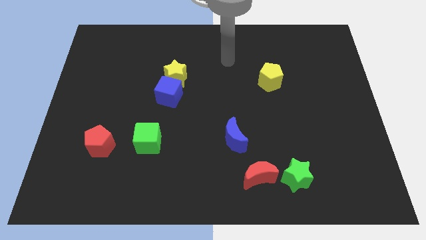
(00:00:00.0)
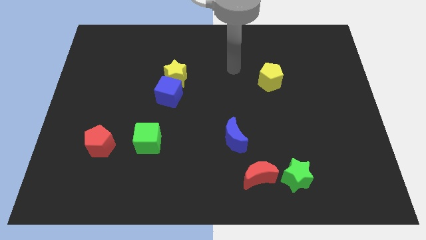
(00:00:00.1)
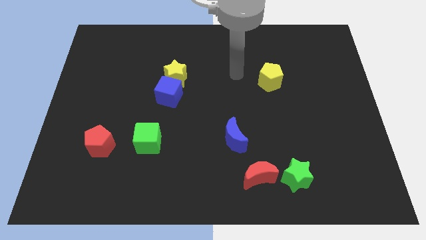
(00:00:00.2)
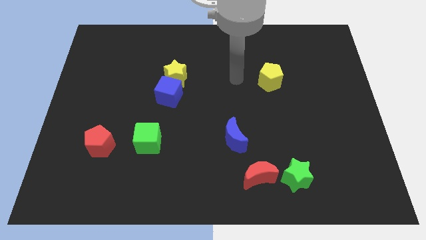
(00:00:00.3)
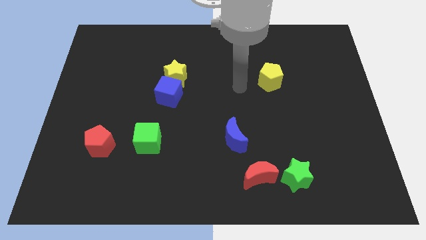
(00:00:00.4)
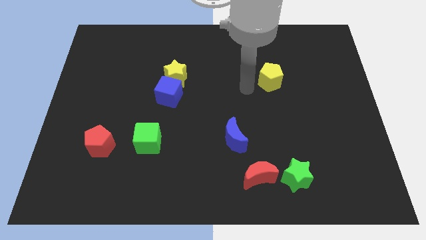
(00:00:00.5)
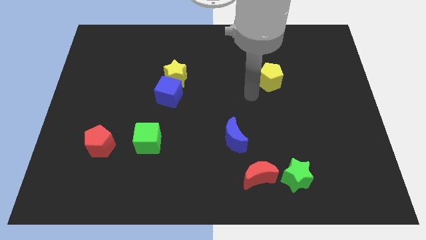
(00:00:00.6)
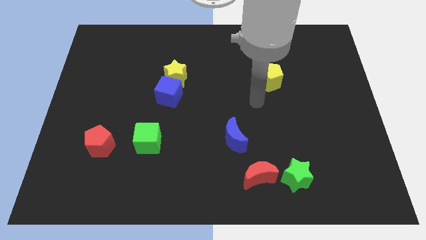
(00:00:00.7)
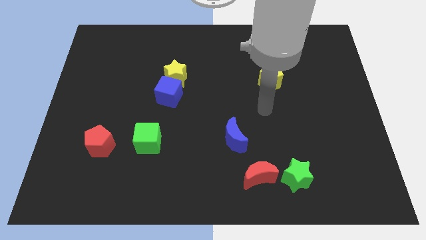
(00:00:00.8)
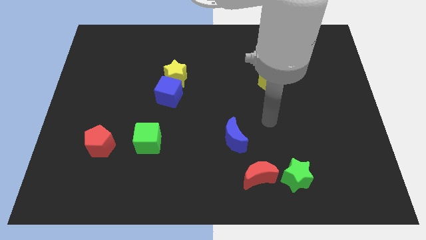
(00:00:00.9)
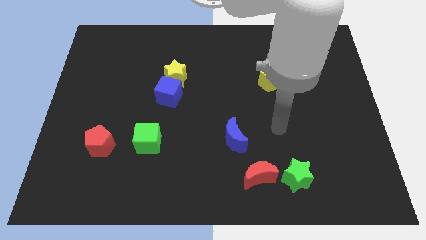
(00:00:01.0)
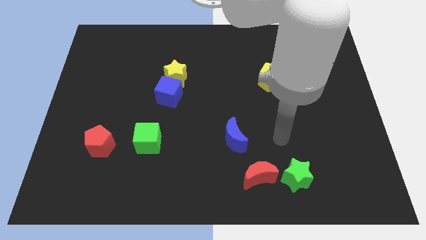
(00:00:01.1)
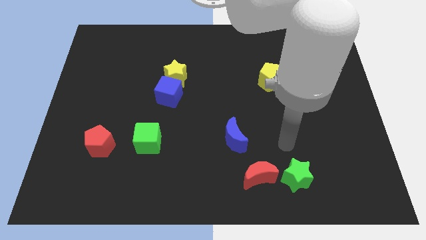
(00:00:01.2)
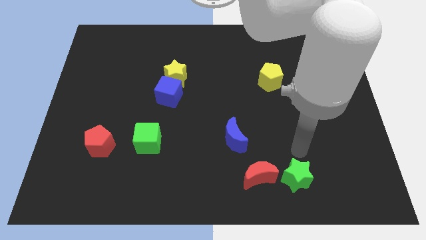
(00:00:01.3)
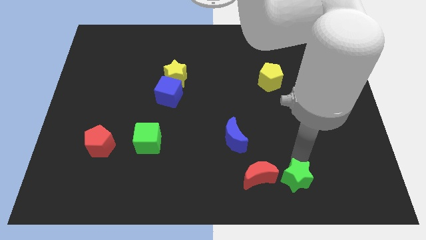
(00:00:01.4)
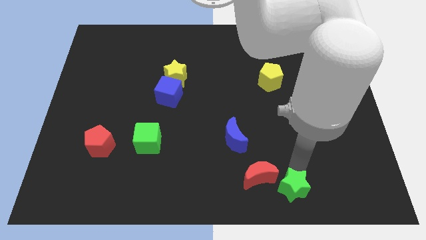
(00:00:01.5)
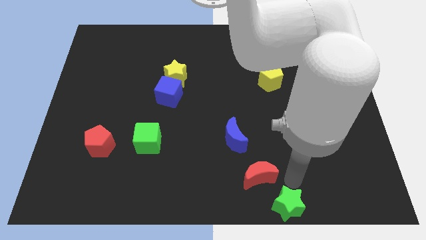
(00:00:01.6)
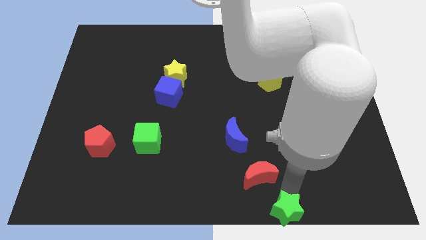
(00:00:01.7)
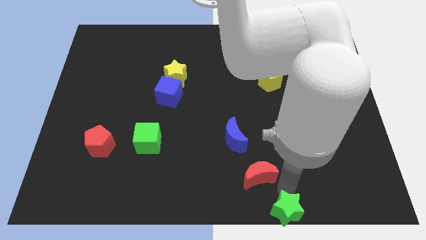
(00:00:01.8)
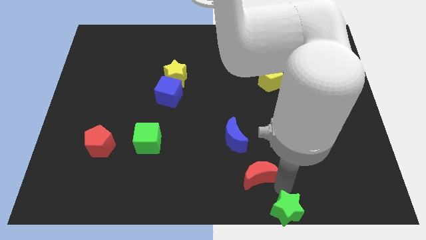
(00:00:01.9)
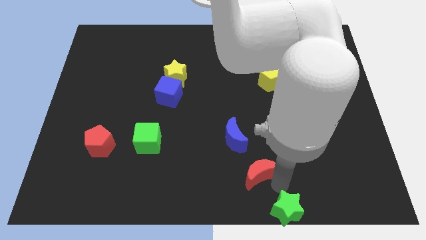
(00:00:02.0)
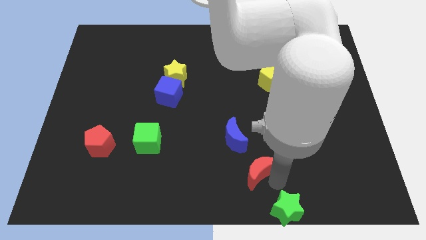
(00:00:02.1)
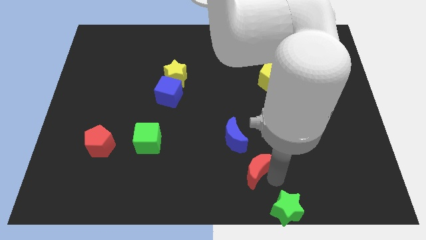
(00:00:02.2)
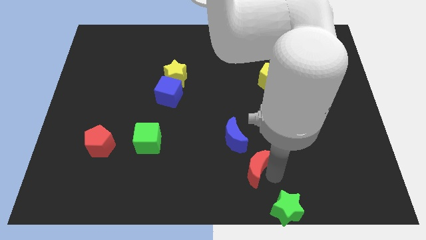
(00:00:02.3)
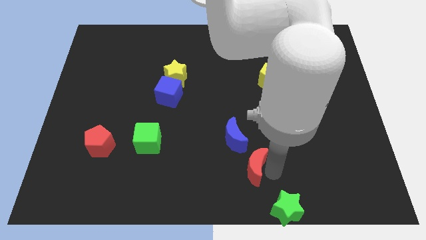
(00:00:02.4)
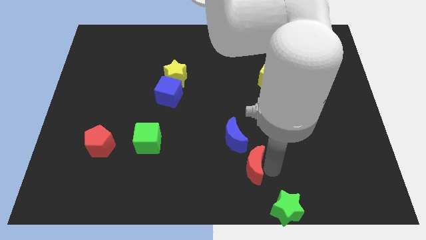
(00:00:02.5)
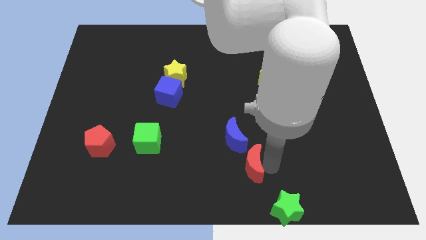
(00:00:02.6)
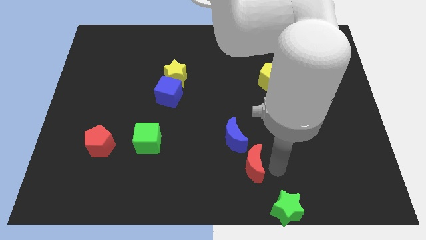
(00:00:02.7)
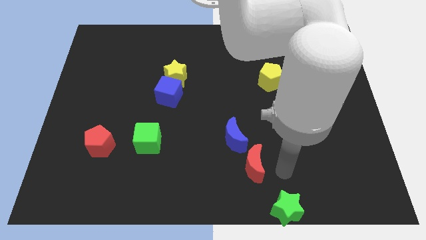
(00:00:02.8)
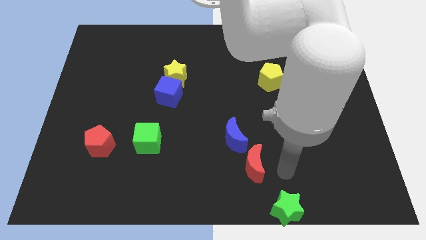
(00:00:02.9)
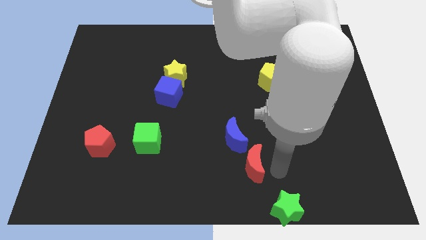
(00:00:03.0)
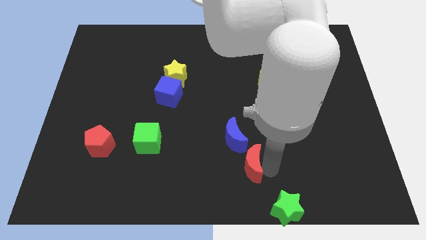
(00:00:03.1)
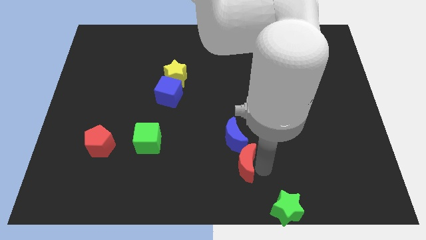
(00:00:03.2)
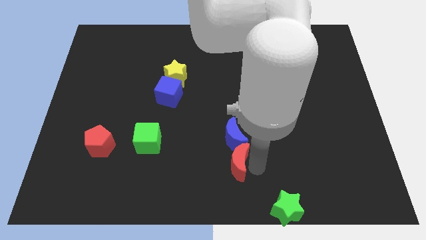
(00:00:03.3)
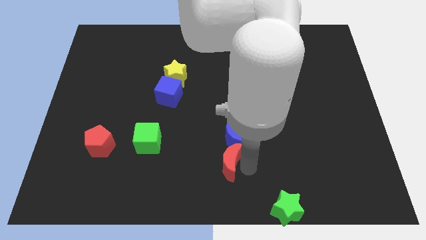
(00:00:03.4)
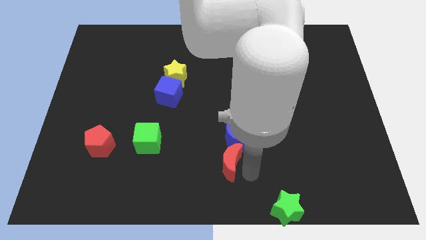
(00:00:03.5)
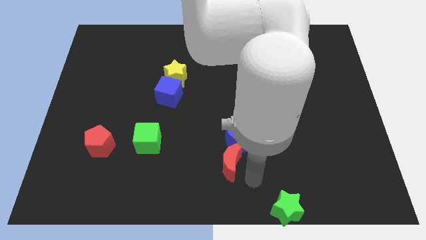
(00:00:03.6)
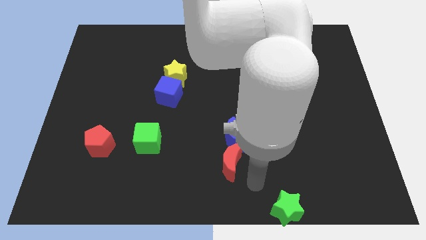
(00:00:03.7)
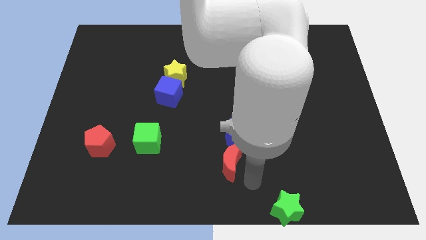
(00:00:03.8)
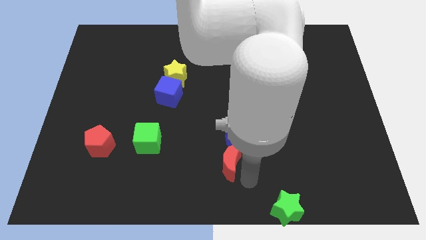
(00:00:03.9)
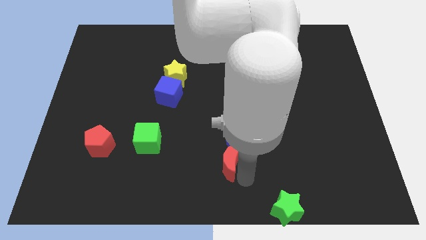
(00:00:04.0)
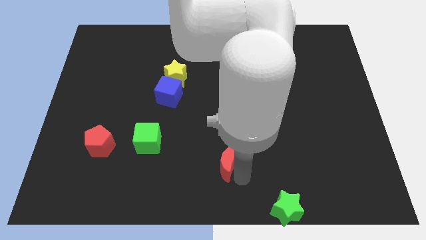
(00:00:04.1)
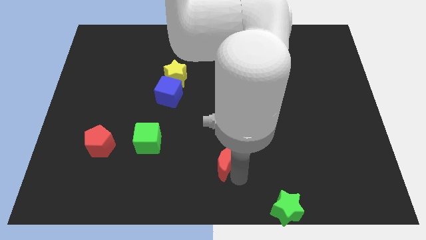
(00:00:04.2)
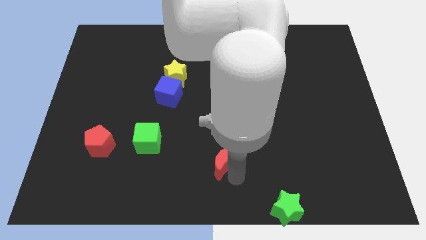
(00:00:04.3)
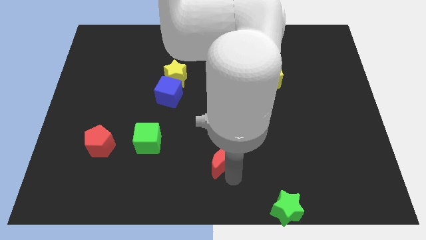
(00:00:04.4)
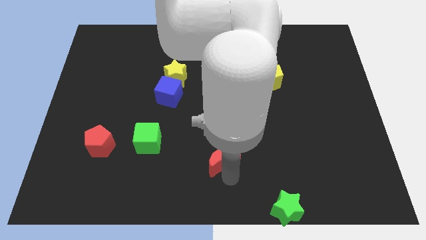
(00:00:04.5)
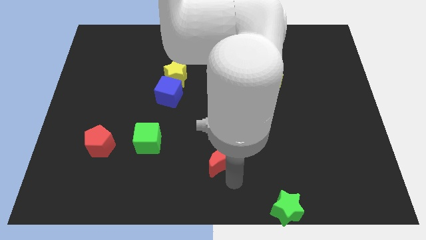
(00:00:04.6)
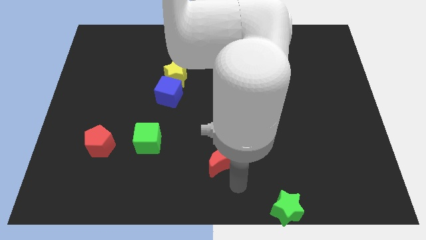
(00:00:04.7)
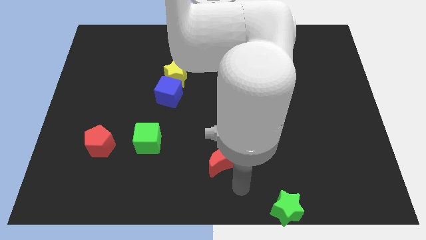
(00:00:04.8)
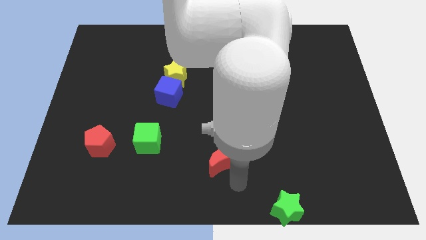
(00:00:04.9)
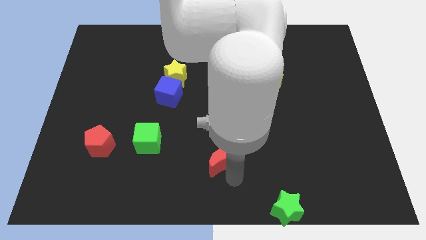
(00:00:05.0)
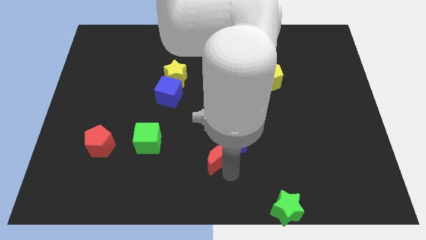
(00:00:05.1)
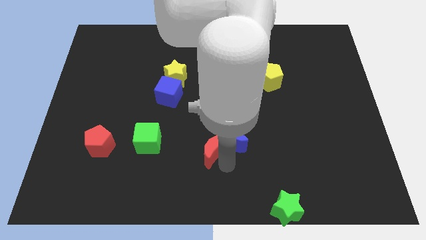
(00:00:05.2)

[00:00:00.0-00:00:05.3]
put the red moon to the left side of the blue moon

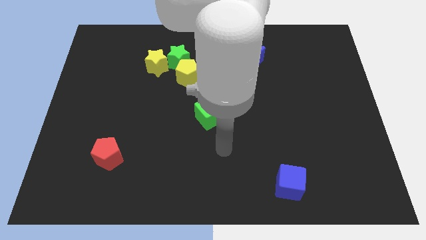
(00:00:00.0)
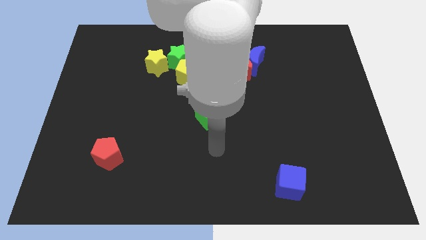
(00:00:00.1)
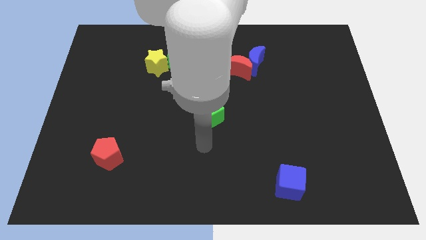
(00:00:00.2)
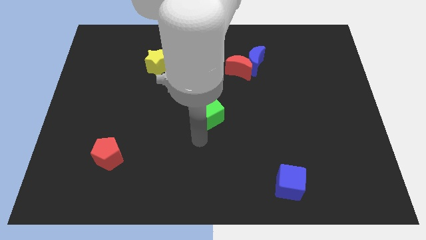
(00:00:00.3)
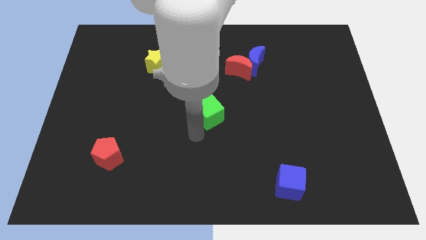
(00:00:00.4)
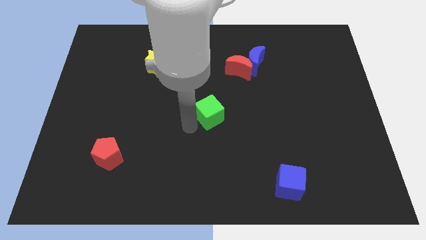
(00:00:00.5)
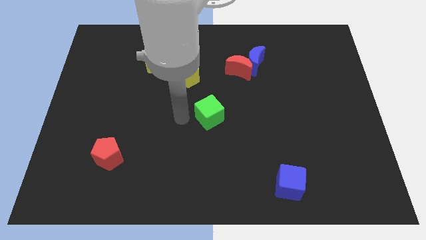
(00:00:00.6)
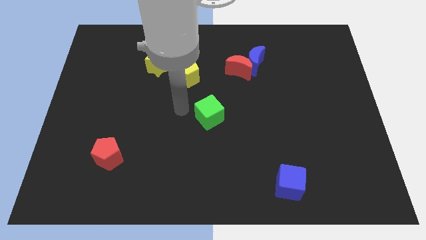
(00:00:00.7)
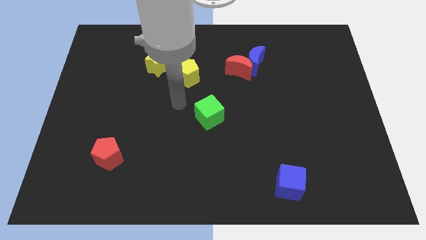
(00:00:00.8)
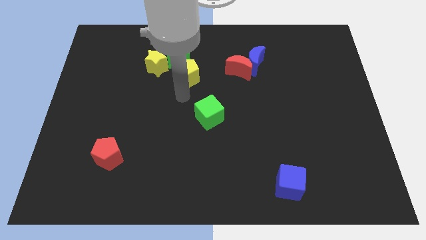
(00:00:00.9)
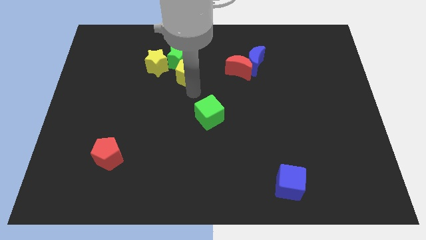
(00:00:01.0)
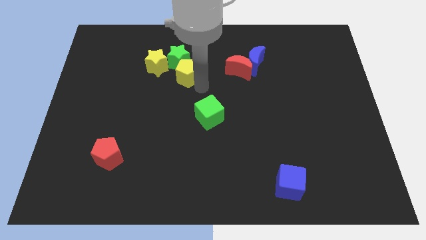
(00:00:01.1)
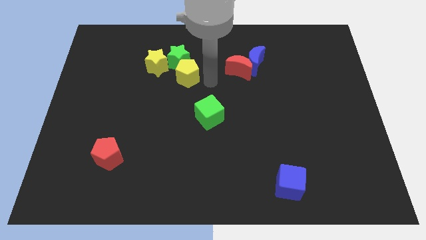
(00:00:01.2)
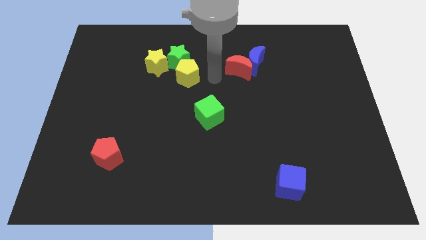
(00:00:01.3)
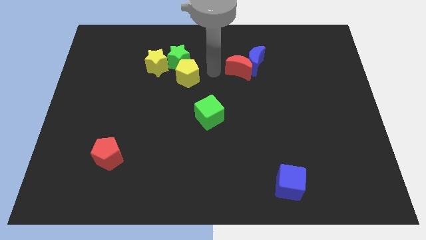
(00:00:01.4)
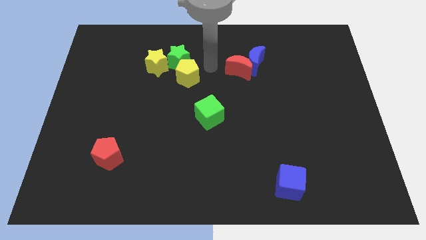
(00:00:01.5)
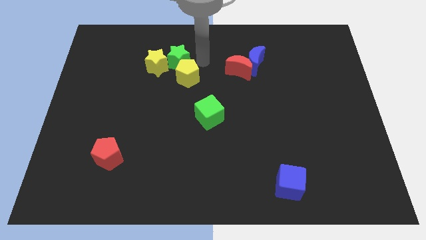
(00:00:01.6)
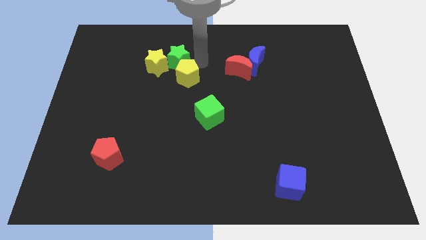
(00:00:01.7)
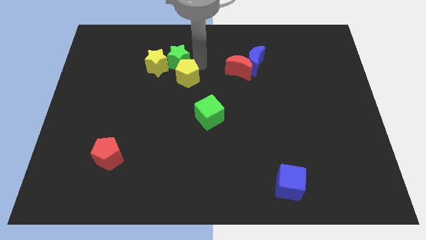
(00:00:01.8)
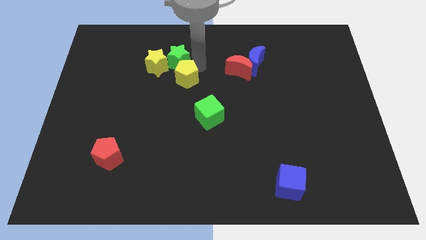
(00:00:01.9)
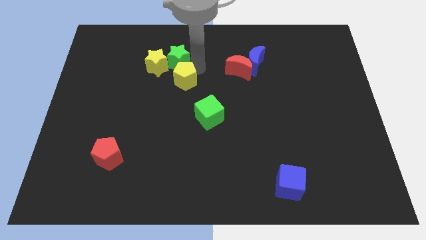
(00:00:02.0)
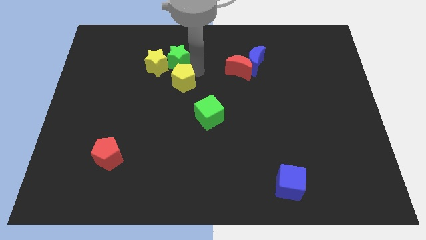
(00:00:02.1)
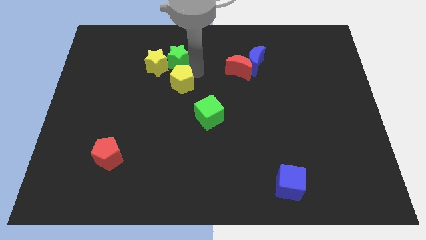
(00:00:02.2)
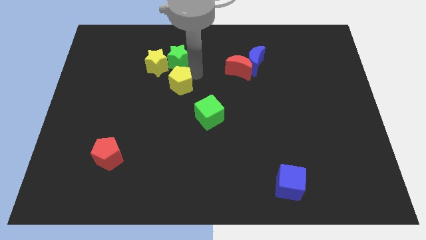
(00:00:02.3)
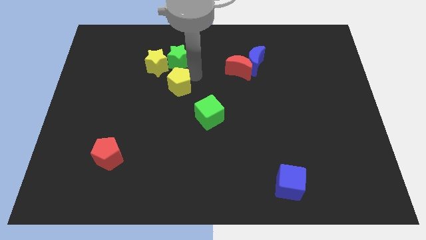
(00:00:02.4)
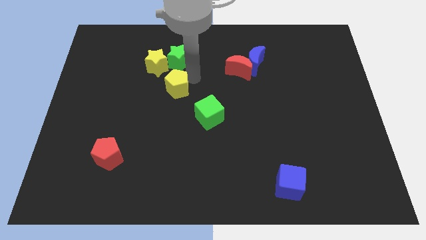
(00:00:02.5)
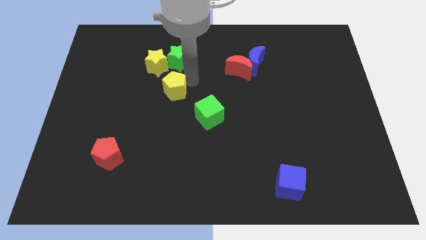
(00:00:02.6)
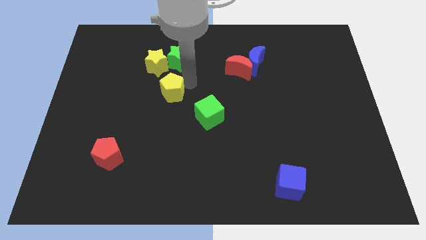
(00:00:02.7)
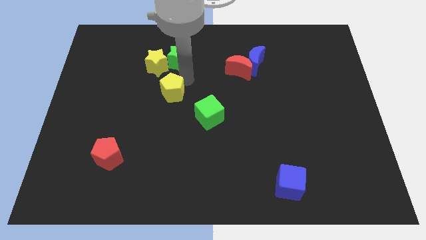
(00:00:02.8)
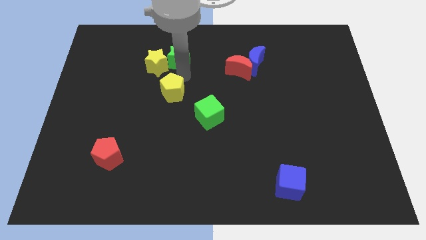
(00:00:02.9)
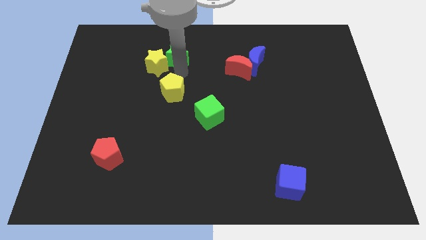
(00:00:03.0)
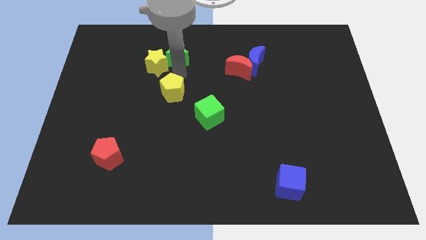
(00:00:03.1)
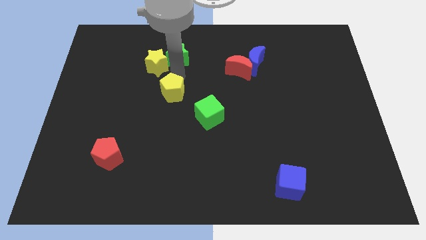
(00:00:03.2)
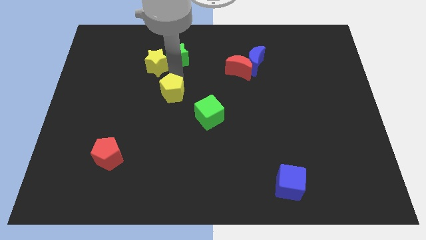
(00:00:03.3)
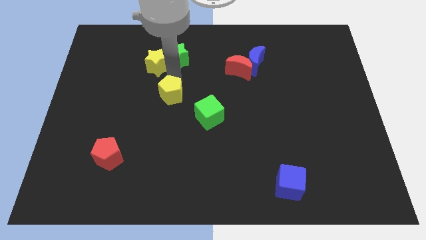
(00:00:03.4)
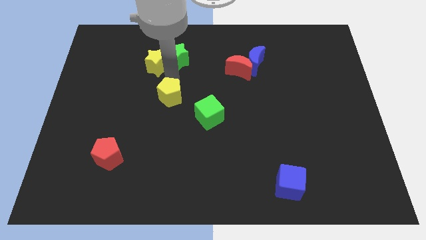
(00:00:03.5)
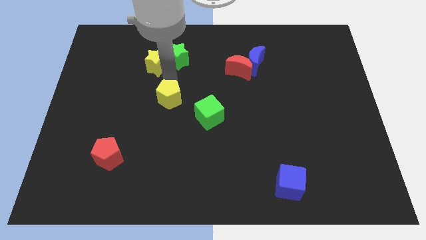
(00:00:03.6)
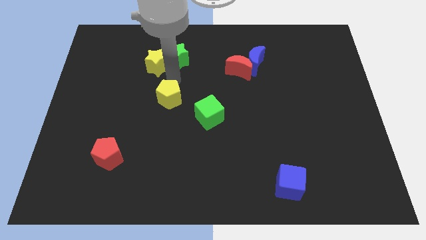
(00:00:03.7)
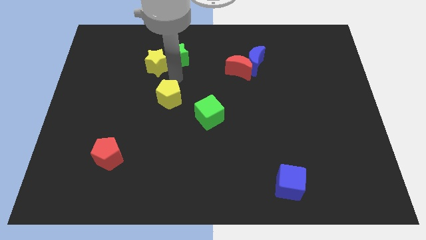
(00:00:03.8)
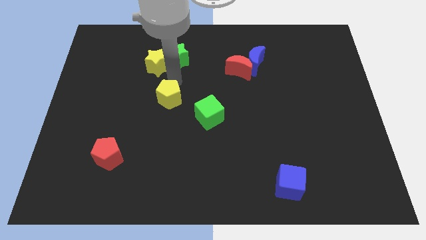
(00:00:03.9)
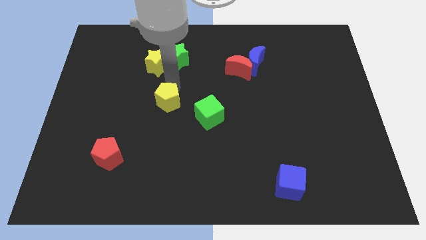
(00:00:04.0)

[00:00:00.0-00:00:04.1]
move the yellow pentagon to the left side of the green cube
